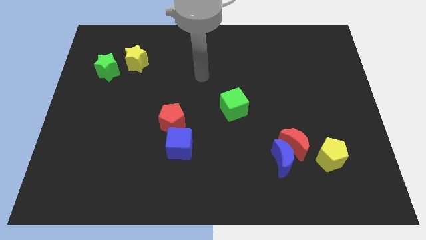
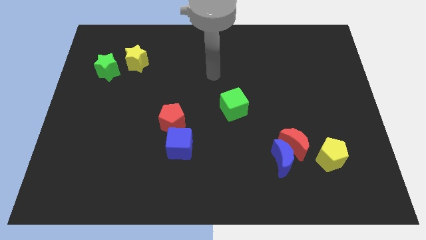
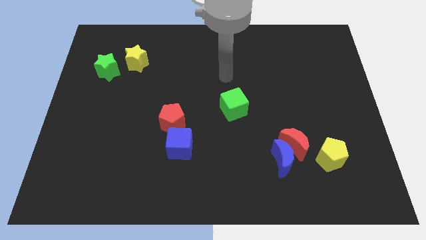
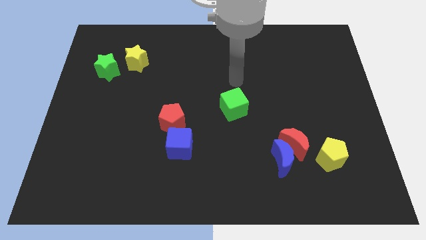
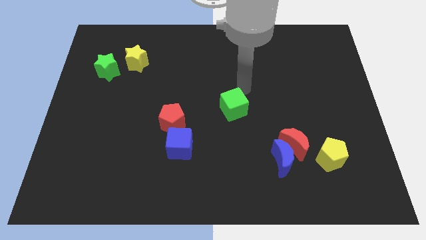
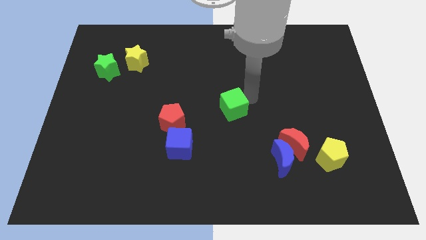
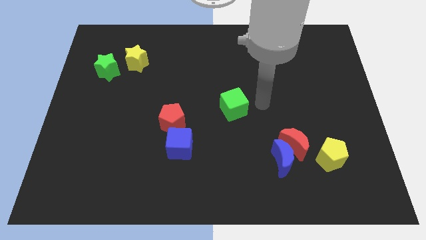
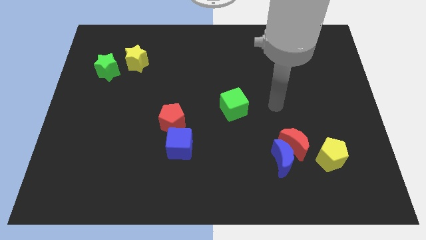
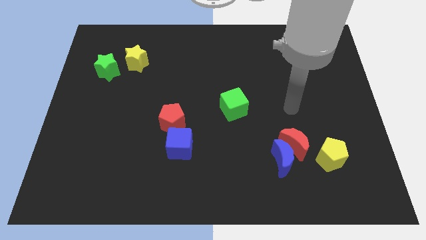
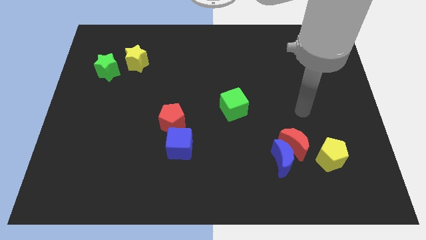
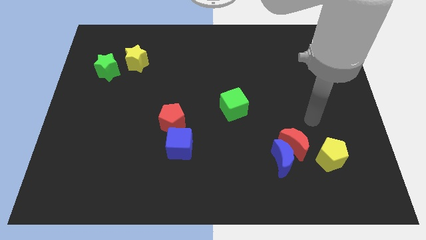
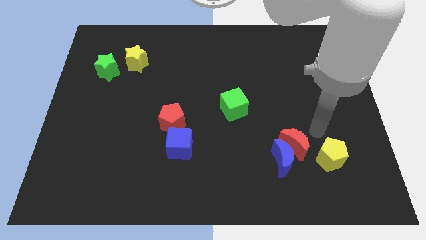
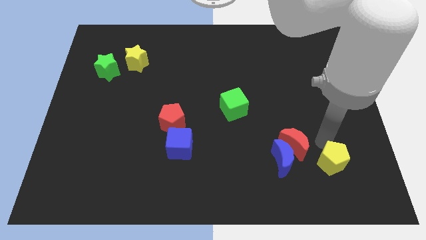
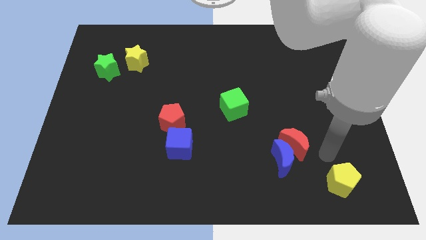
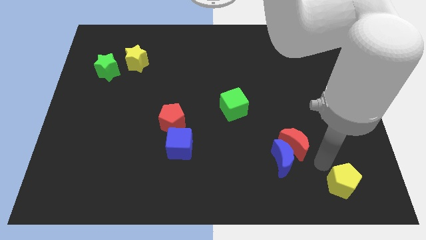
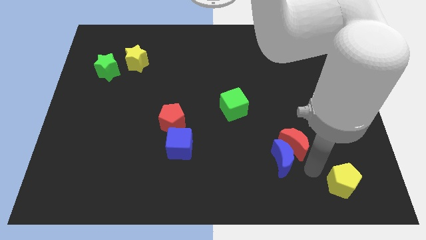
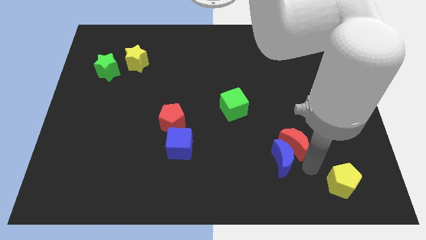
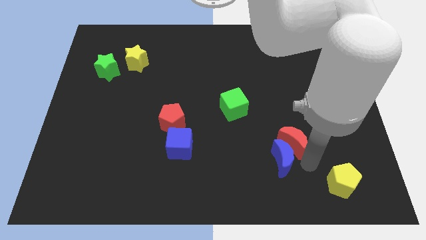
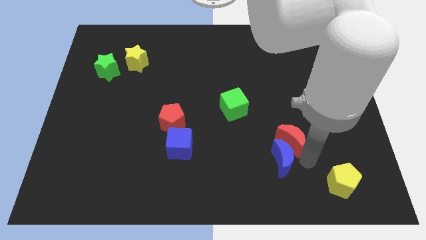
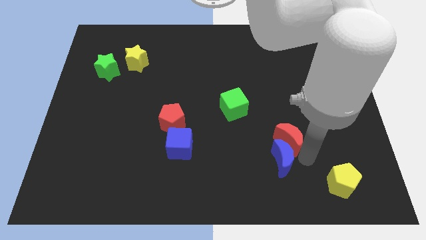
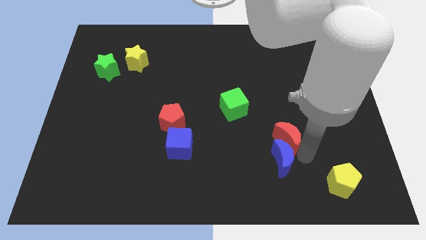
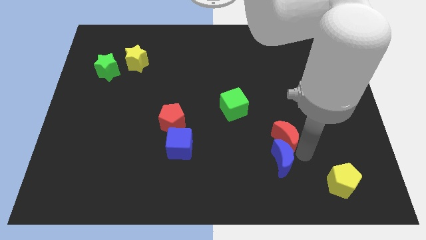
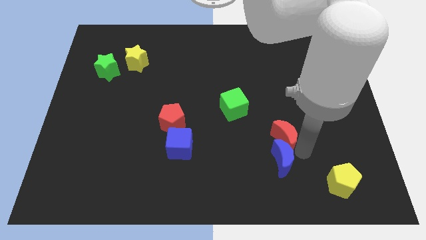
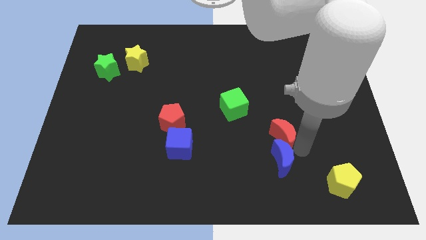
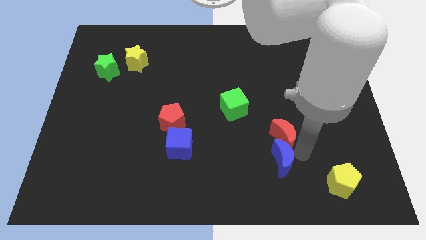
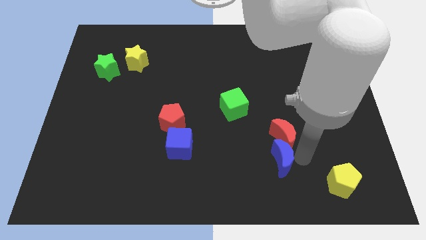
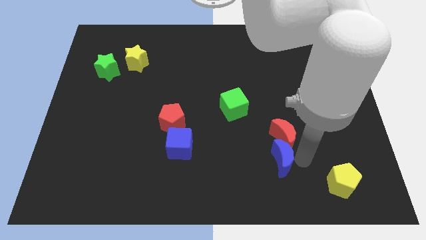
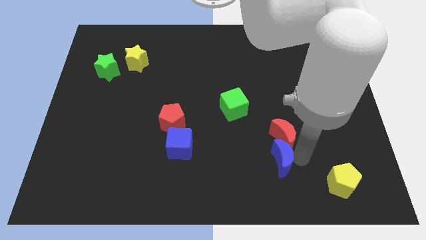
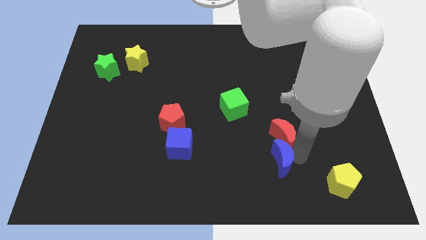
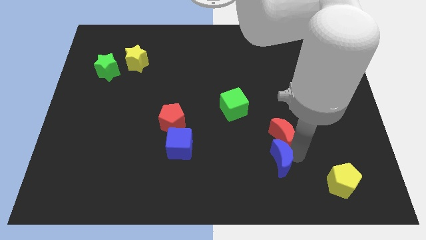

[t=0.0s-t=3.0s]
pull the red moon apart from the blue moon and yellow pentagon

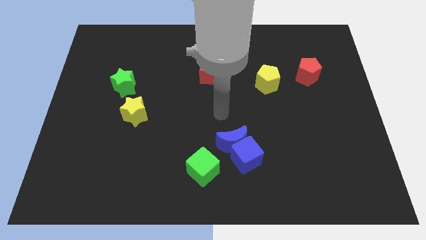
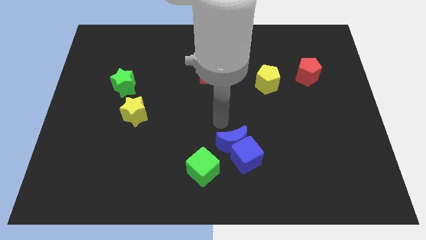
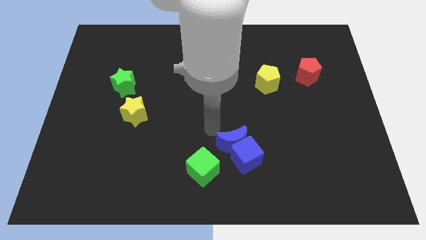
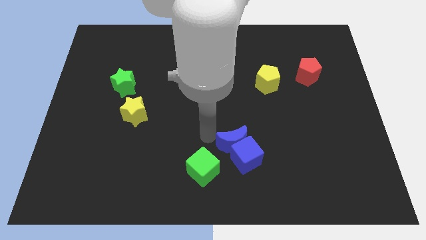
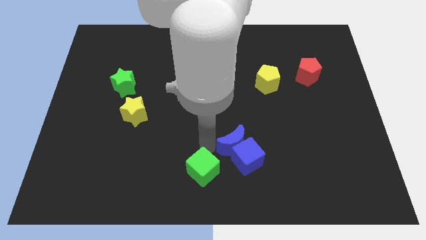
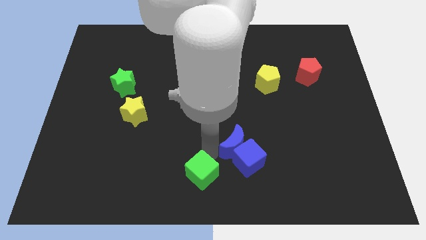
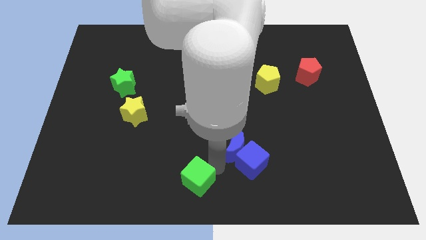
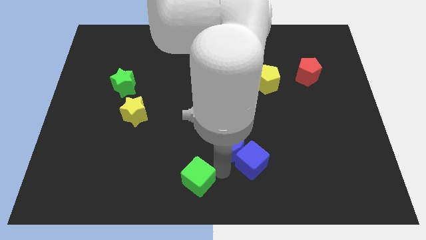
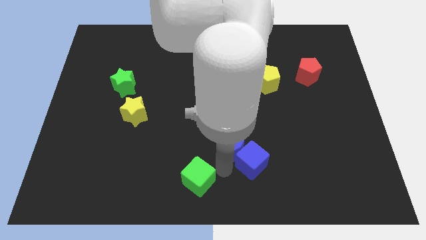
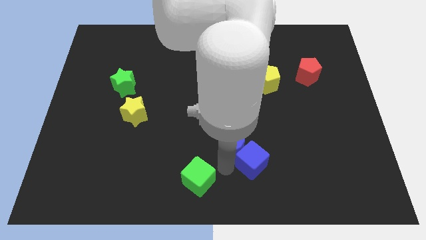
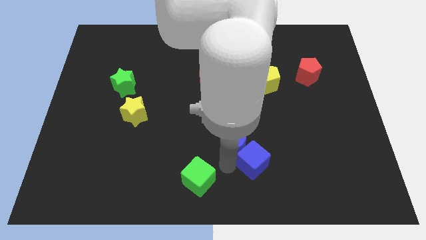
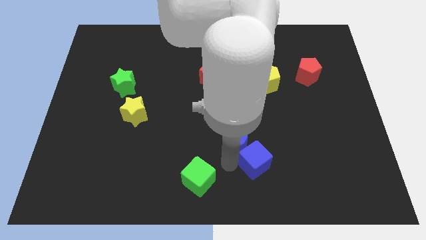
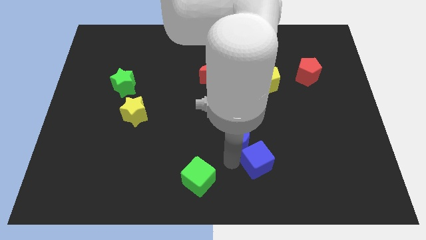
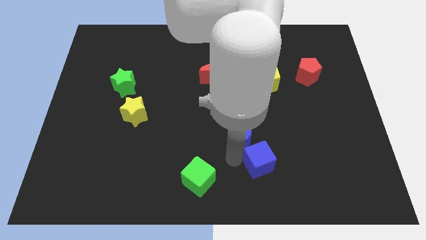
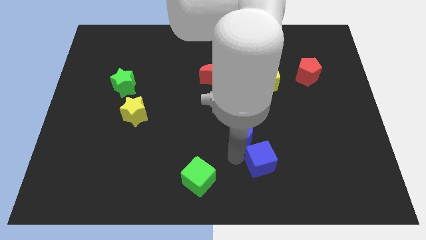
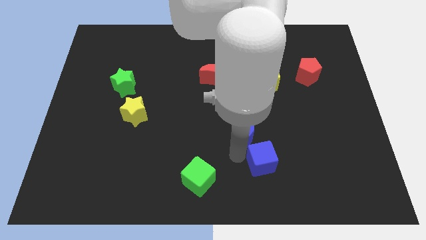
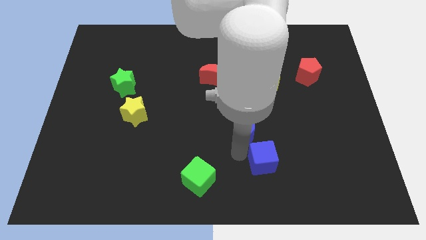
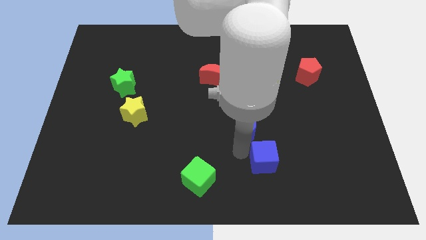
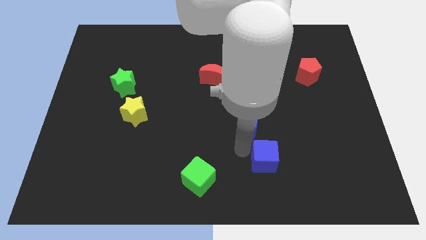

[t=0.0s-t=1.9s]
pull the blue moon apart from the blue cube and green cube

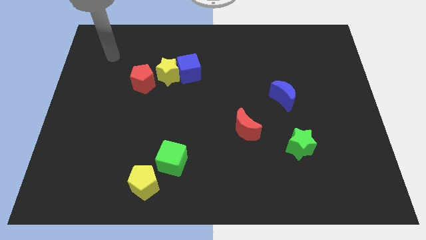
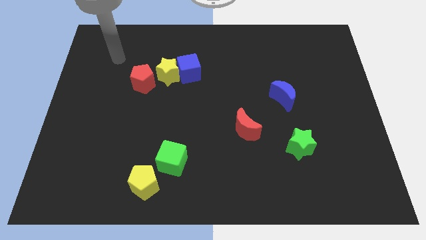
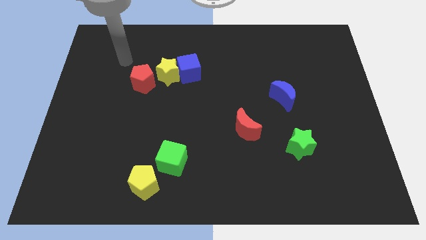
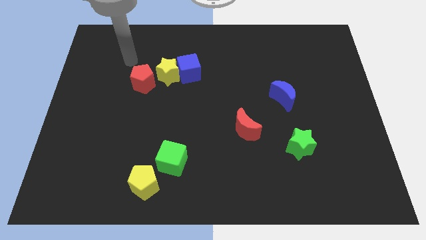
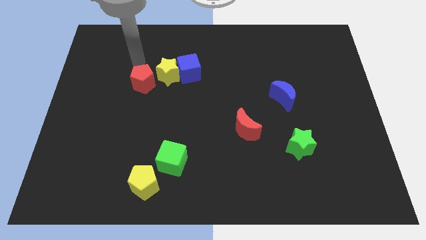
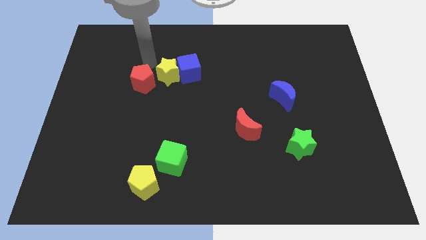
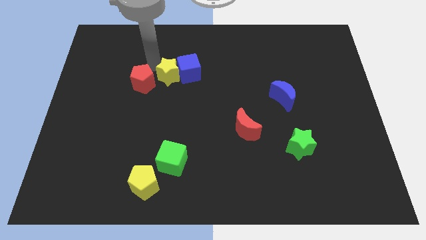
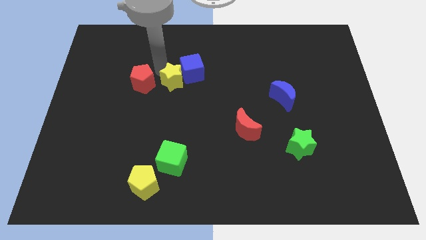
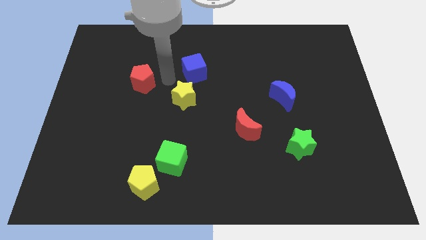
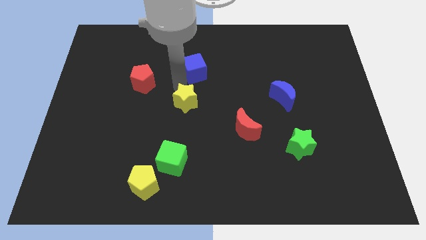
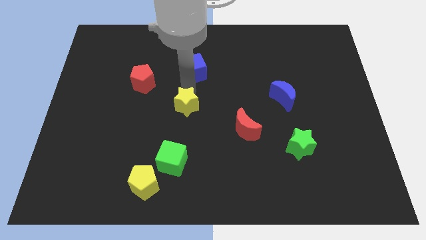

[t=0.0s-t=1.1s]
move the blue cube away from the yellow star

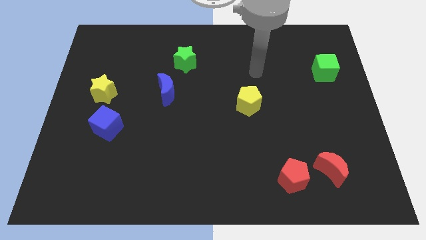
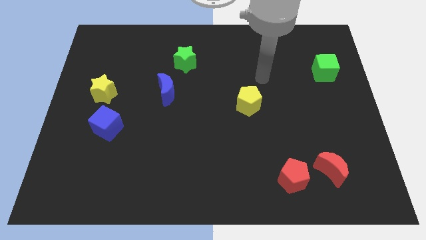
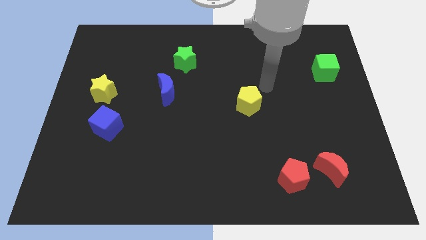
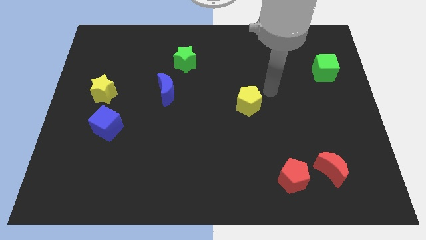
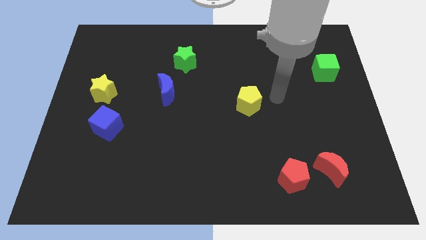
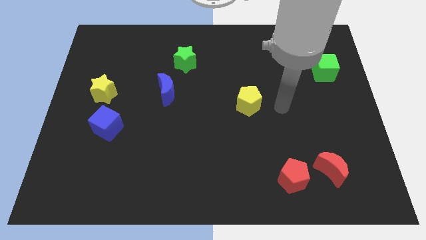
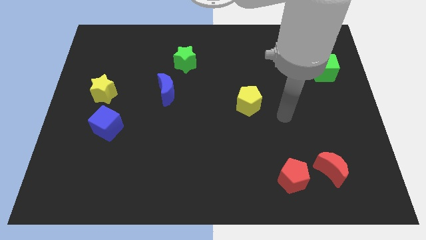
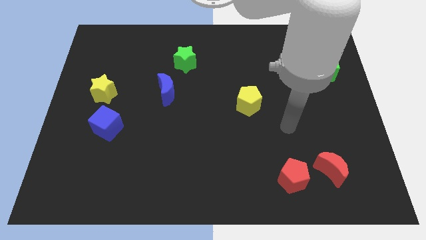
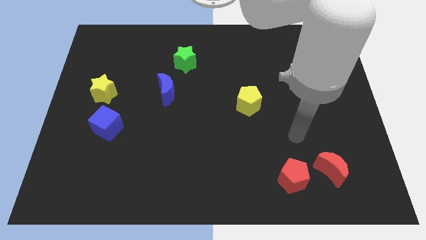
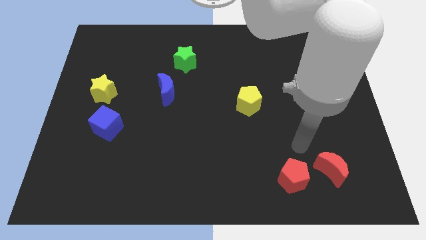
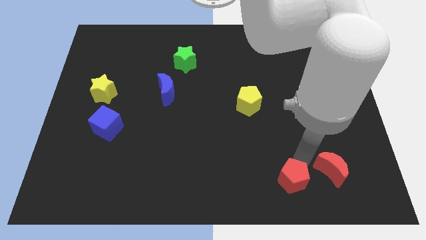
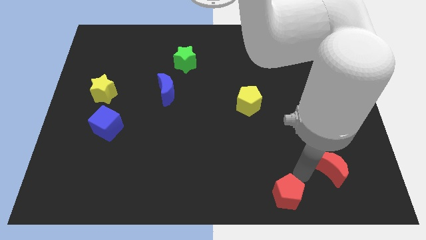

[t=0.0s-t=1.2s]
separate the red moon from the red pentagon

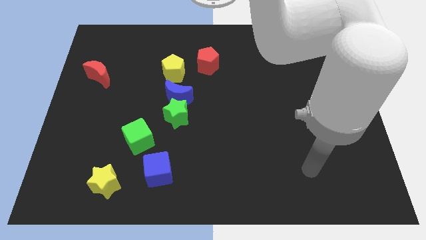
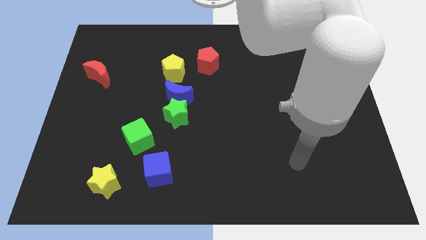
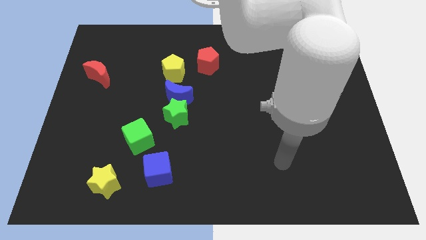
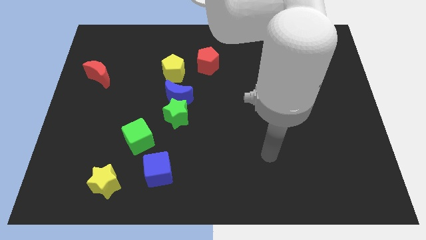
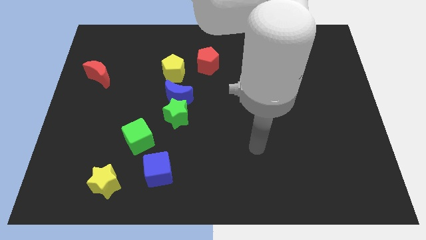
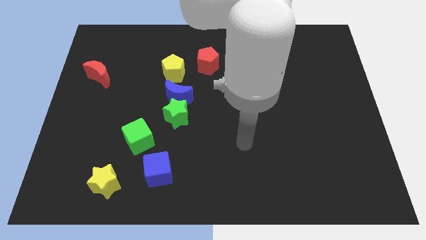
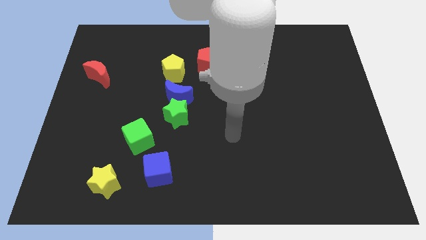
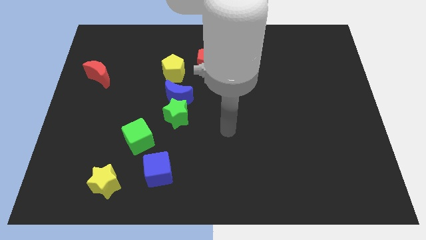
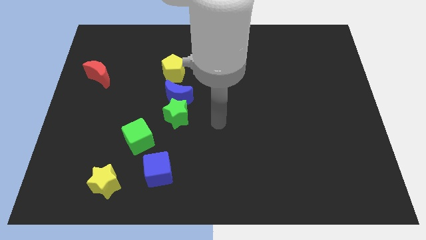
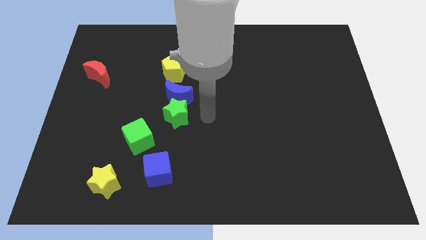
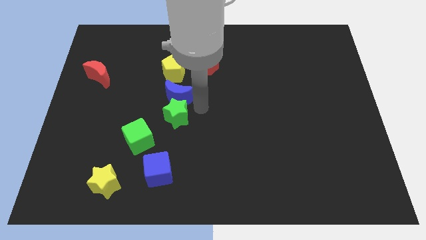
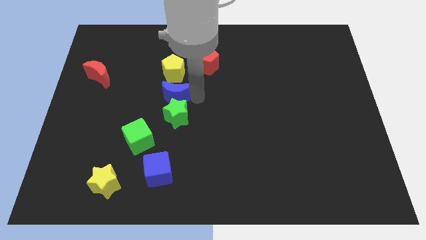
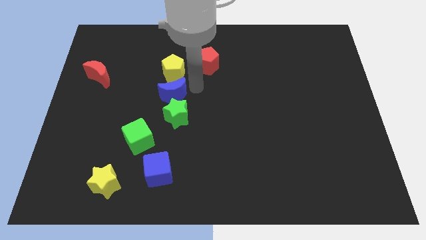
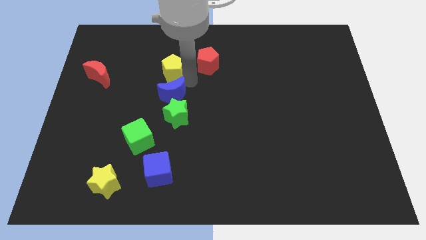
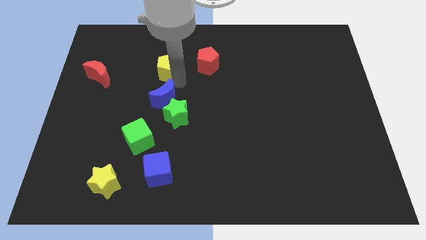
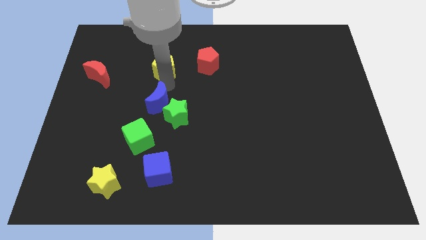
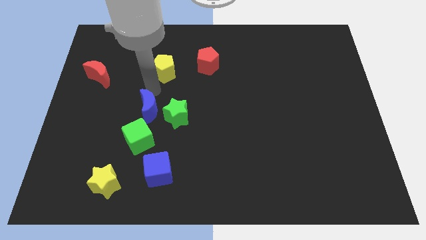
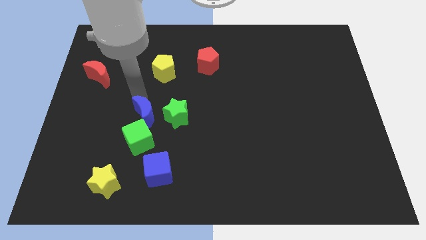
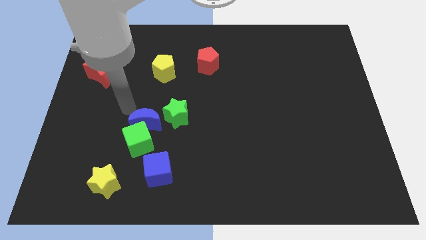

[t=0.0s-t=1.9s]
pull the blue moon apart from the green star and yellow pentagon

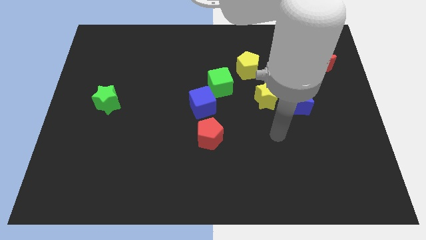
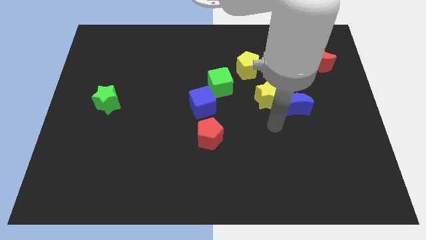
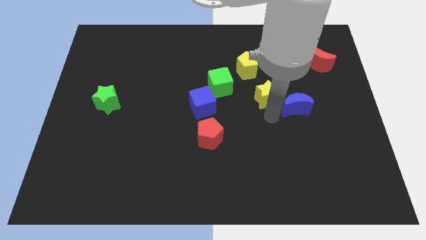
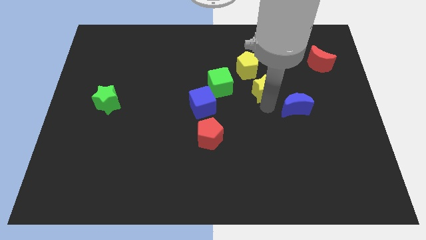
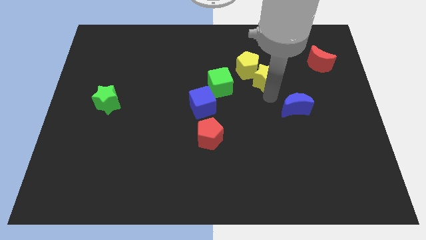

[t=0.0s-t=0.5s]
move the blue moon away from the yellow star
